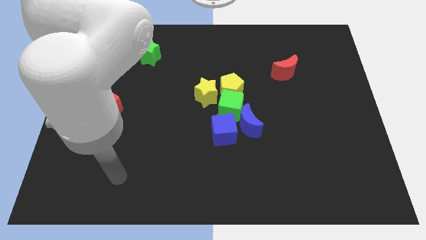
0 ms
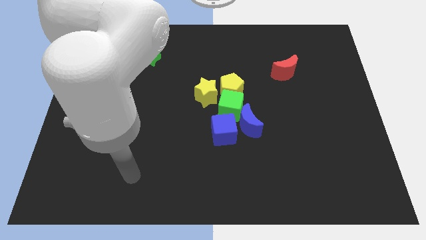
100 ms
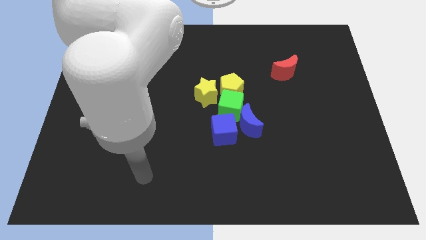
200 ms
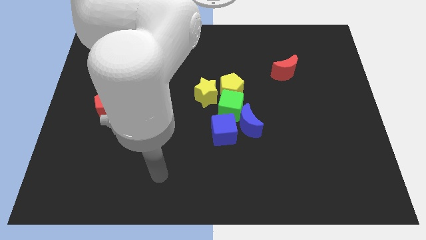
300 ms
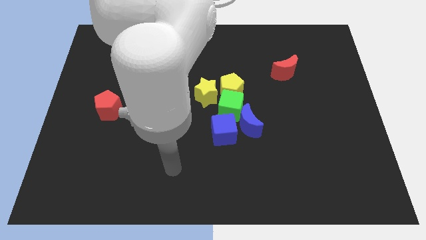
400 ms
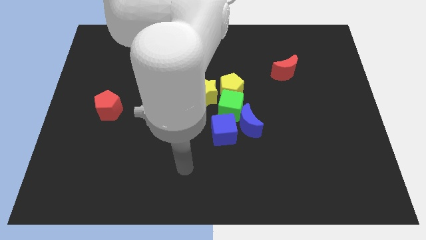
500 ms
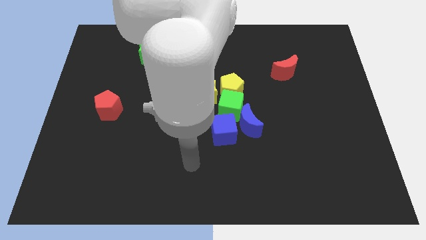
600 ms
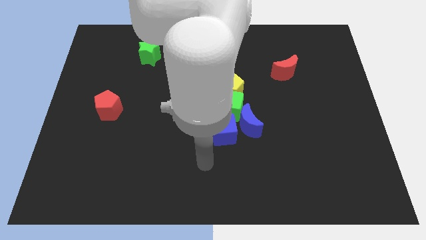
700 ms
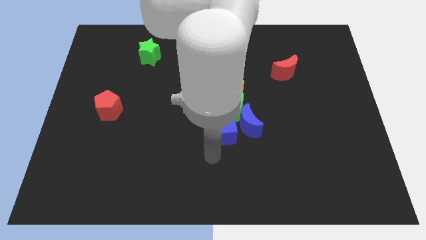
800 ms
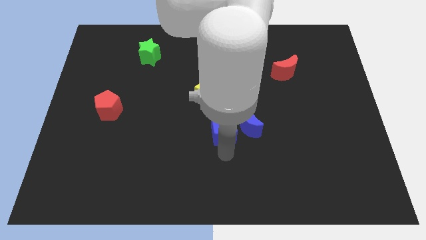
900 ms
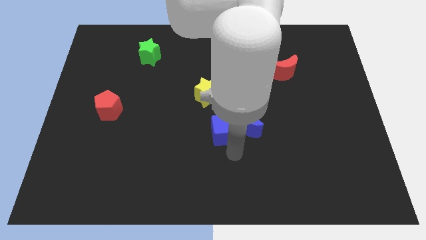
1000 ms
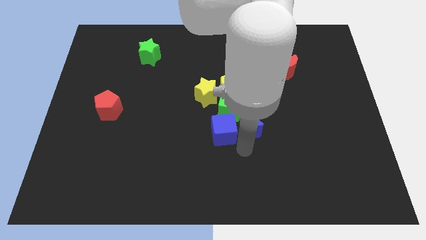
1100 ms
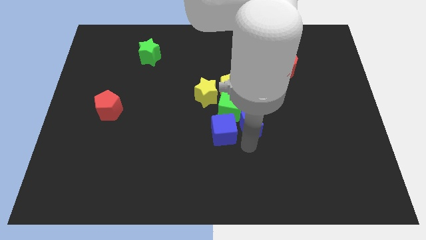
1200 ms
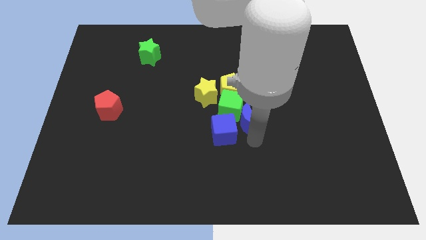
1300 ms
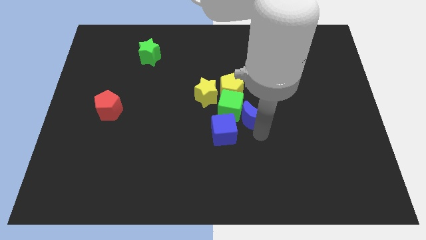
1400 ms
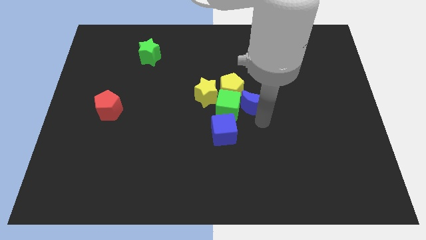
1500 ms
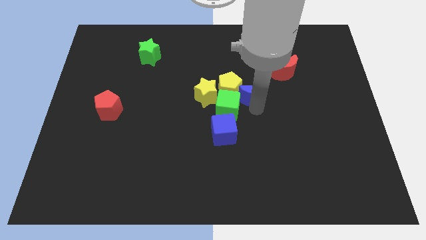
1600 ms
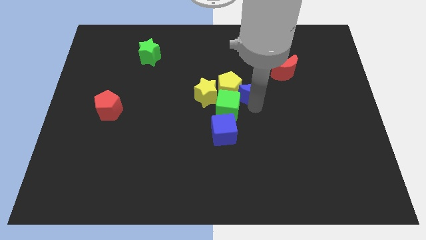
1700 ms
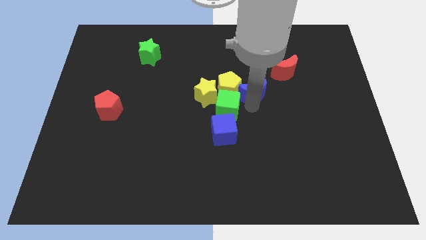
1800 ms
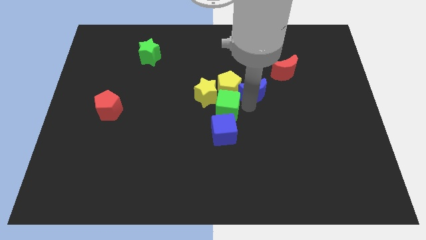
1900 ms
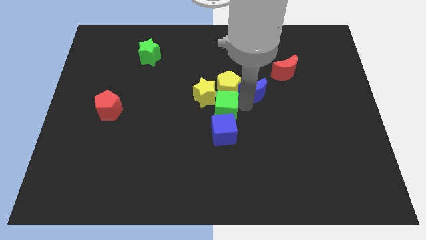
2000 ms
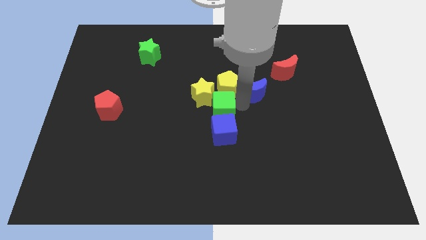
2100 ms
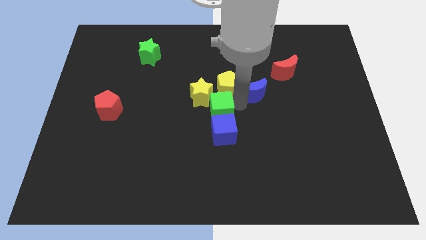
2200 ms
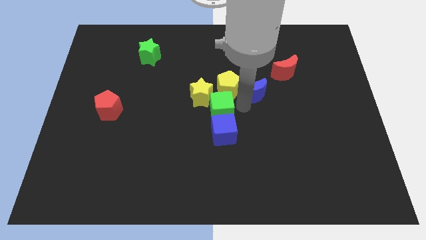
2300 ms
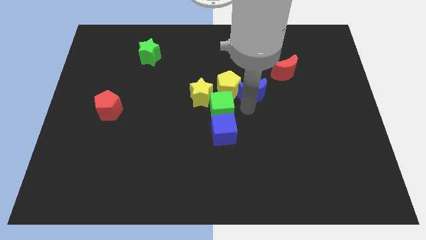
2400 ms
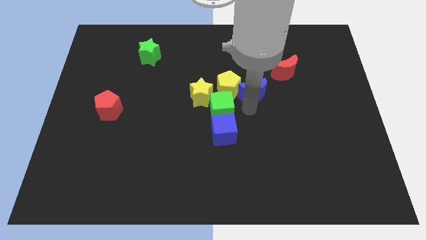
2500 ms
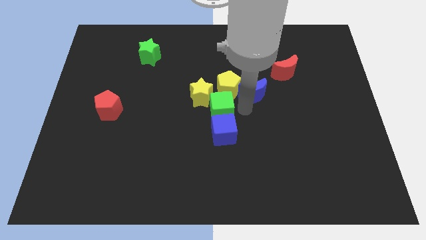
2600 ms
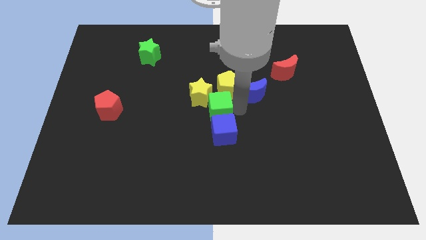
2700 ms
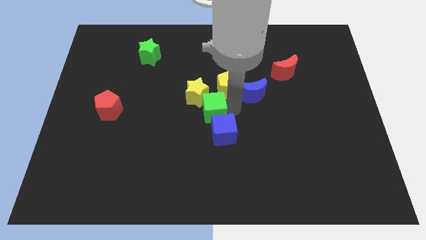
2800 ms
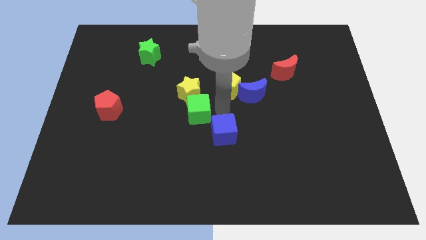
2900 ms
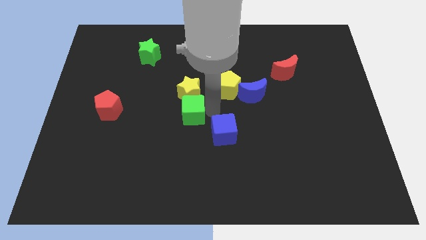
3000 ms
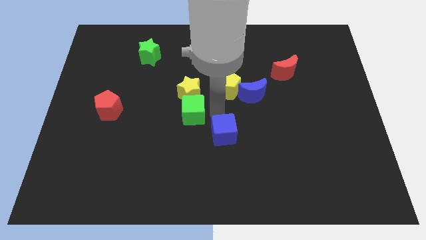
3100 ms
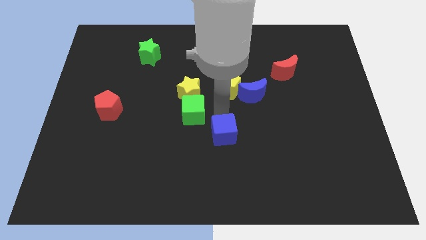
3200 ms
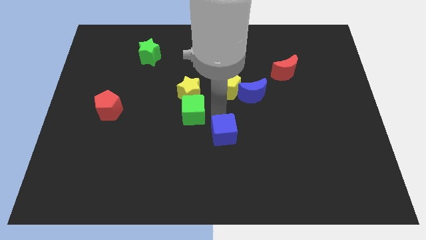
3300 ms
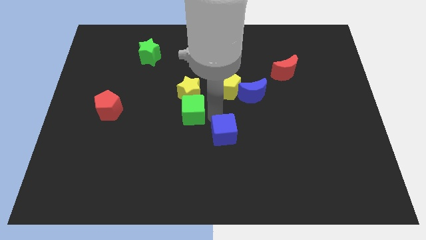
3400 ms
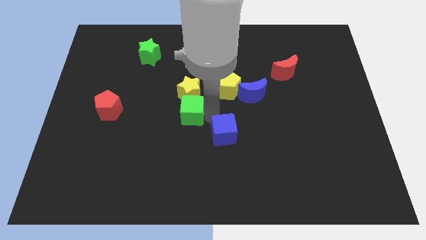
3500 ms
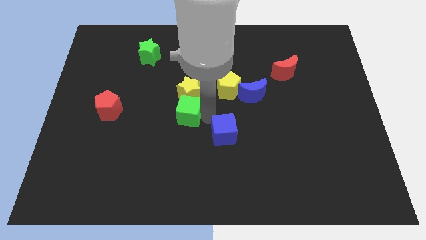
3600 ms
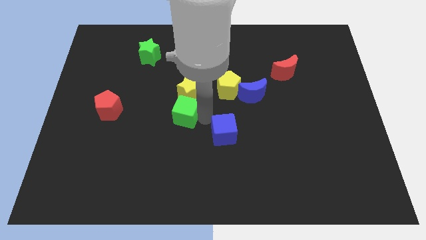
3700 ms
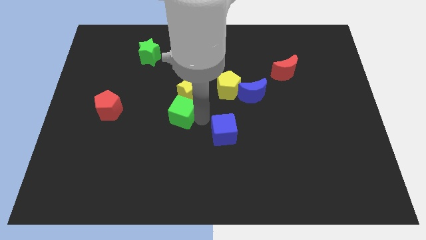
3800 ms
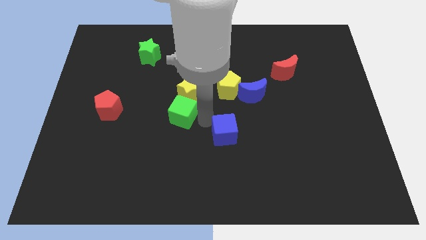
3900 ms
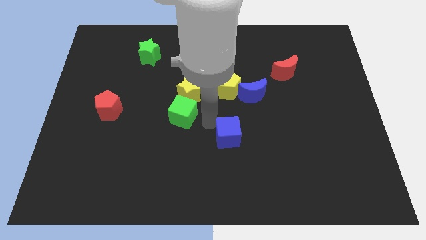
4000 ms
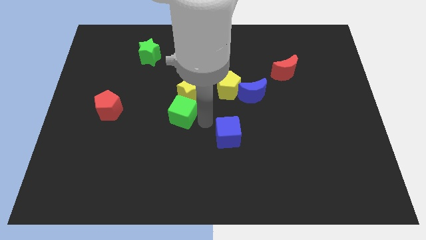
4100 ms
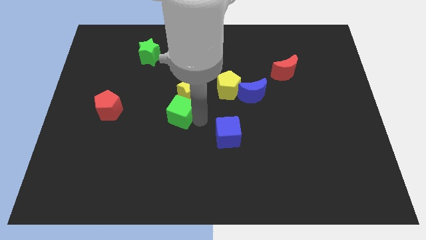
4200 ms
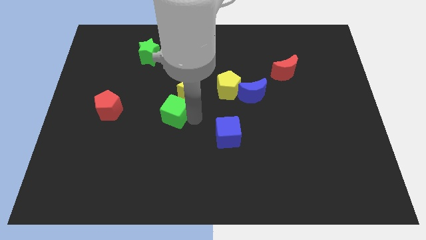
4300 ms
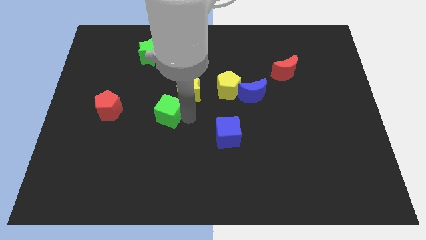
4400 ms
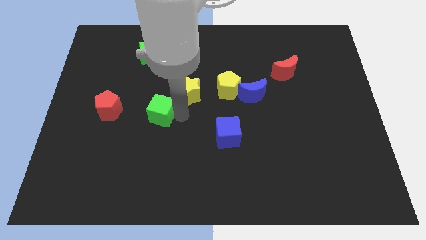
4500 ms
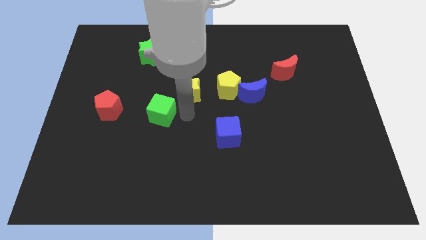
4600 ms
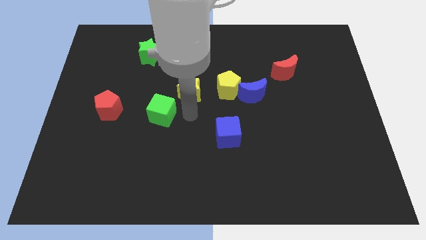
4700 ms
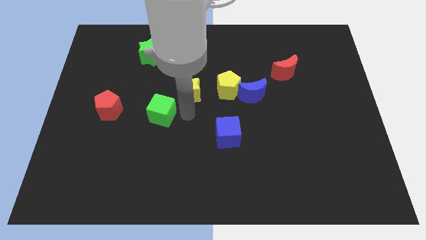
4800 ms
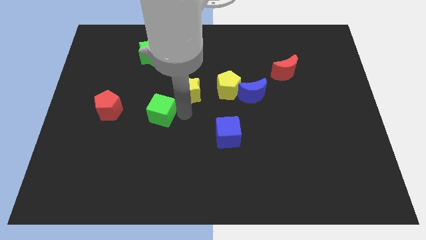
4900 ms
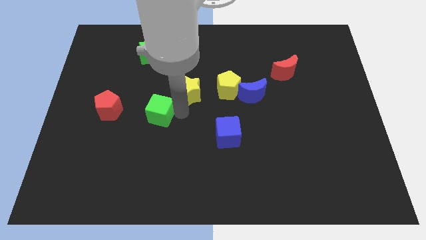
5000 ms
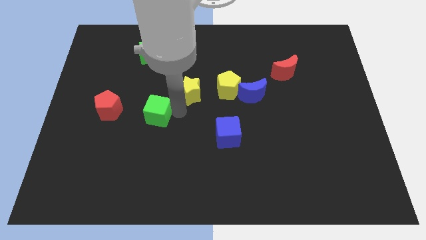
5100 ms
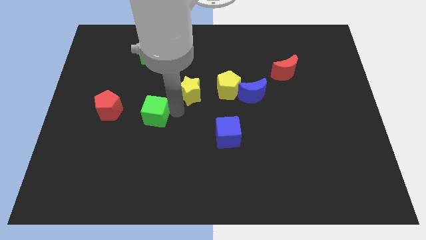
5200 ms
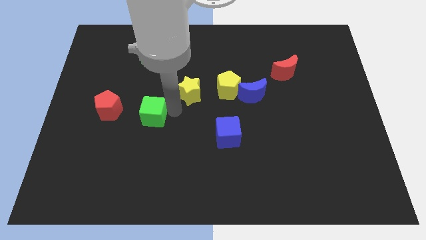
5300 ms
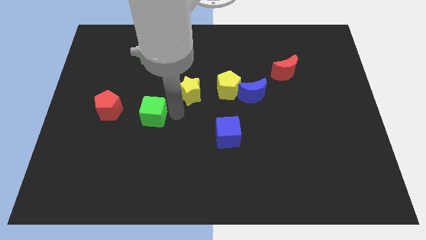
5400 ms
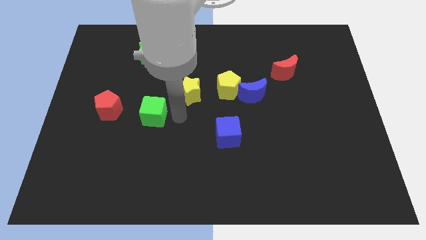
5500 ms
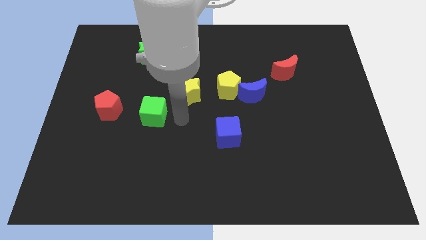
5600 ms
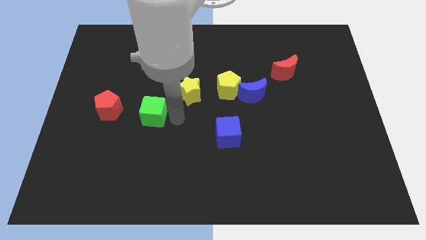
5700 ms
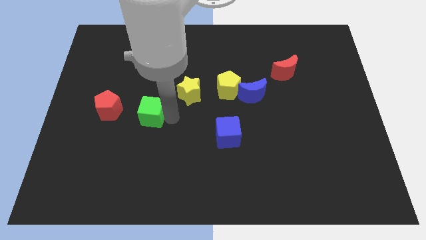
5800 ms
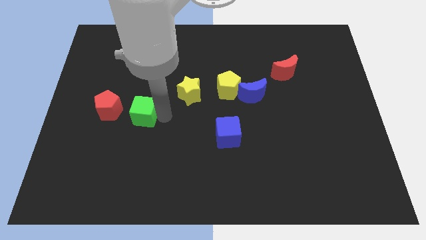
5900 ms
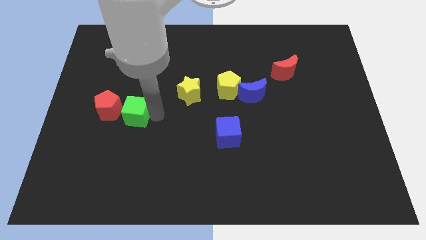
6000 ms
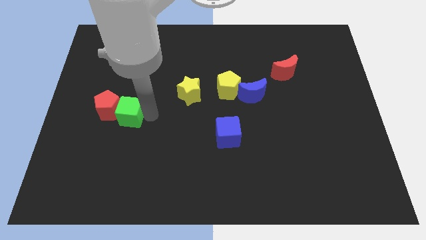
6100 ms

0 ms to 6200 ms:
push the green cube to the red pentagon

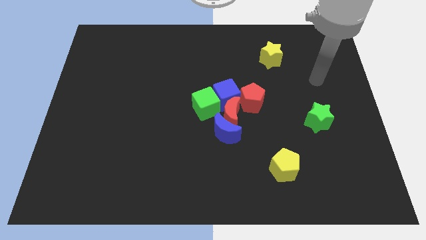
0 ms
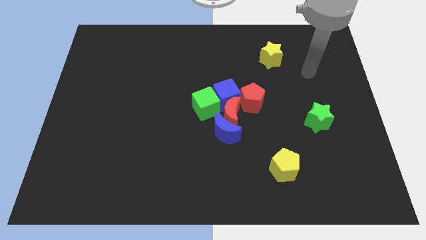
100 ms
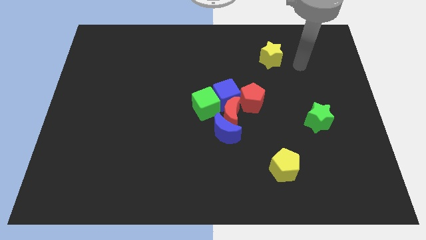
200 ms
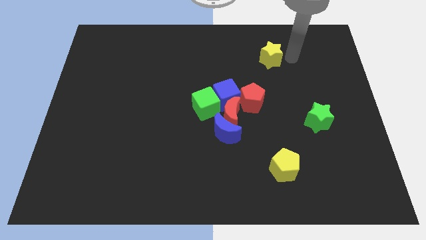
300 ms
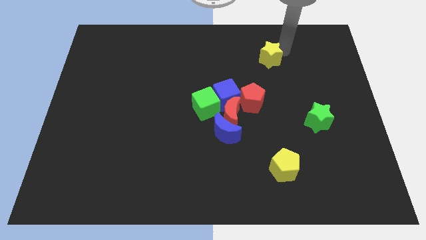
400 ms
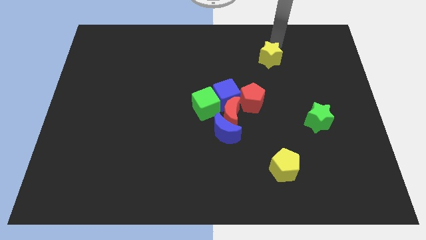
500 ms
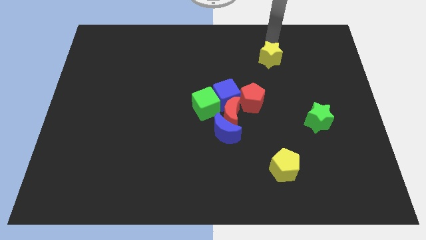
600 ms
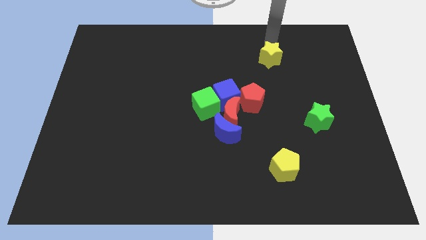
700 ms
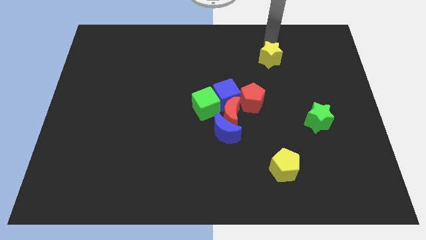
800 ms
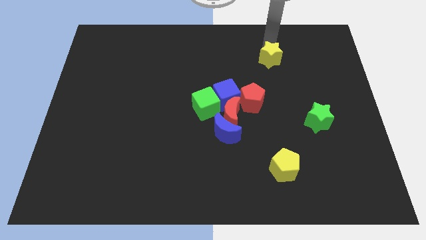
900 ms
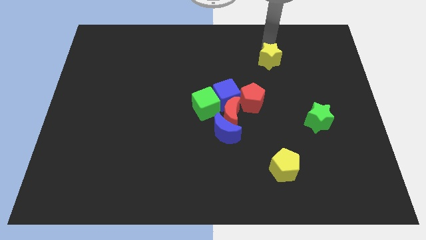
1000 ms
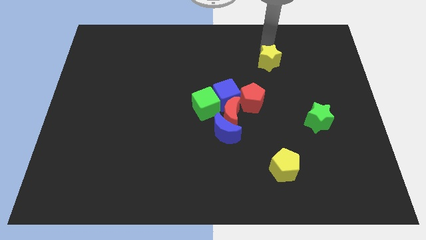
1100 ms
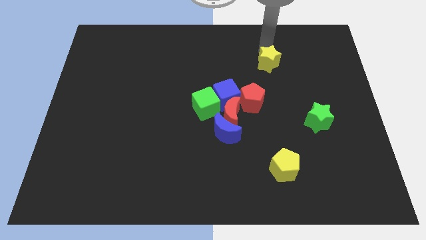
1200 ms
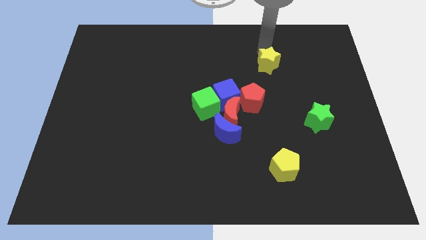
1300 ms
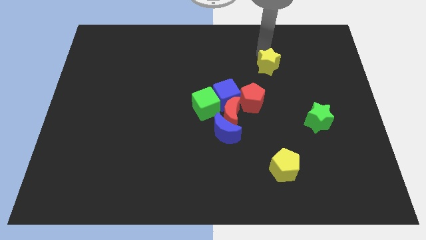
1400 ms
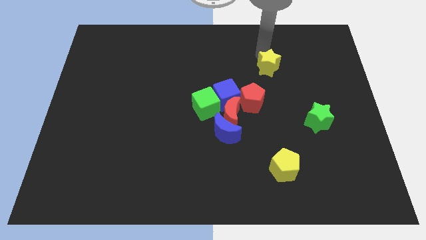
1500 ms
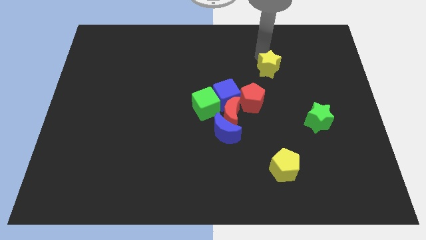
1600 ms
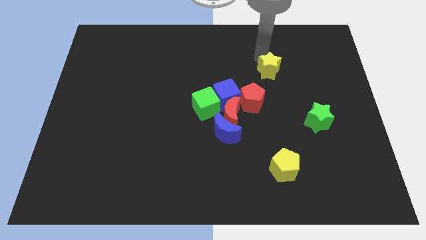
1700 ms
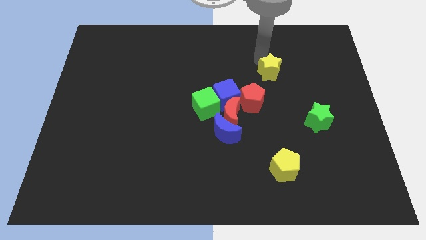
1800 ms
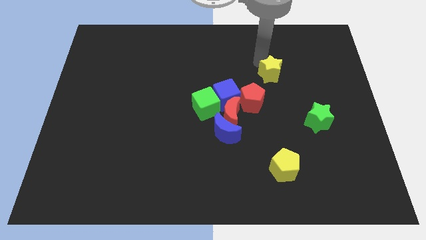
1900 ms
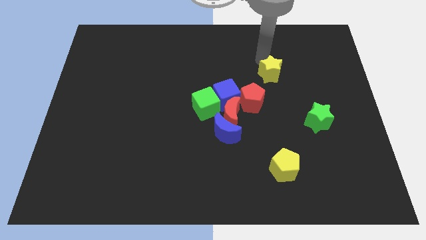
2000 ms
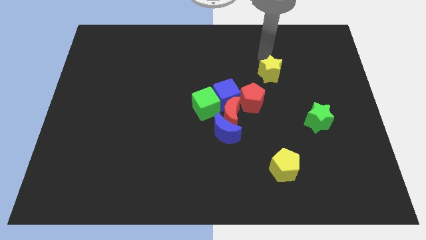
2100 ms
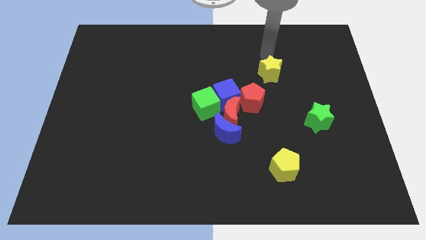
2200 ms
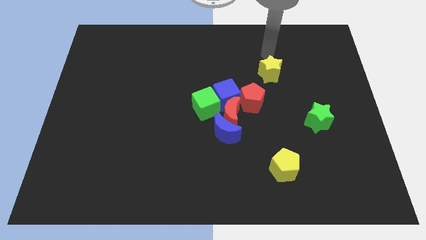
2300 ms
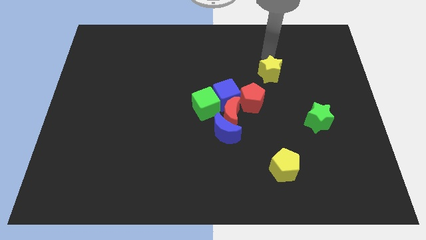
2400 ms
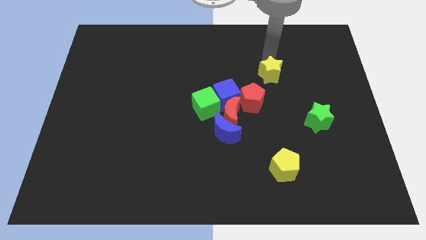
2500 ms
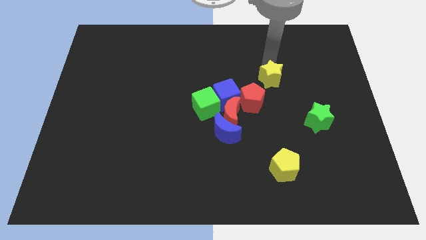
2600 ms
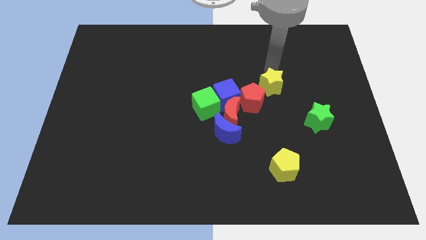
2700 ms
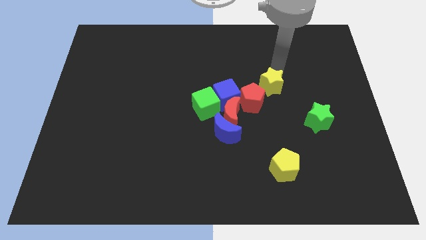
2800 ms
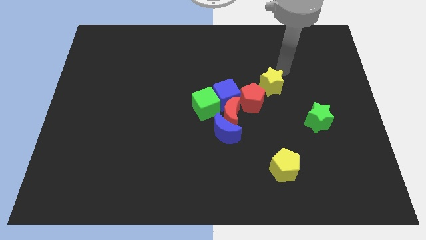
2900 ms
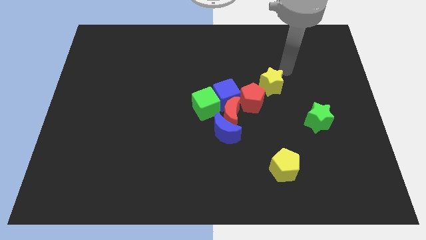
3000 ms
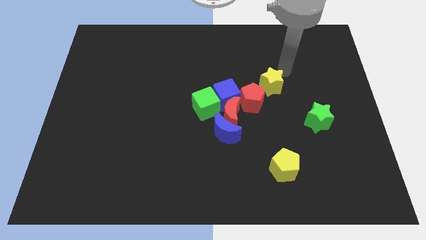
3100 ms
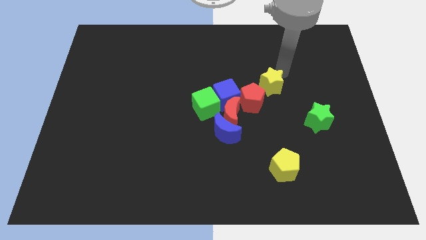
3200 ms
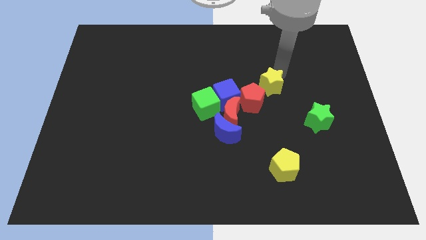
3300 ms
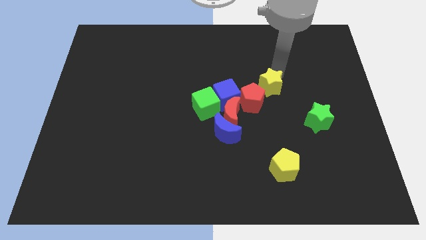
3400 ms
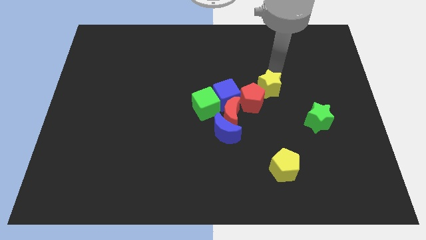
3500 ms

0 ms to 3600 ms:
put the yellow star next to the red pentagon
